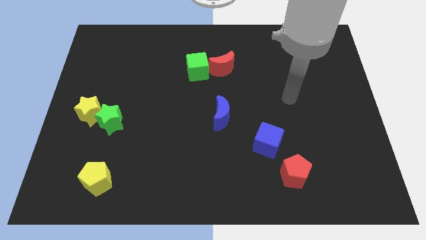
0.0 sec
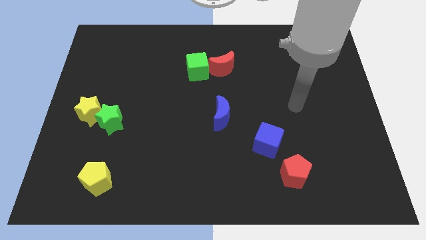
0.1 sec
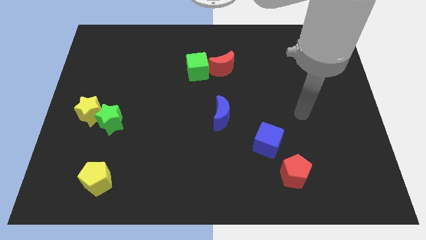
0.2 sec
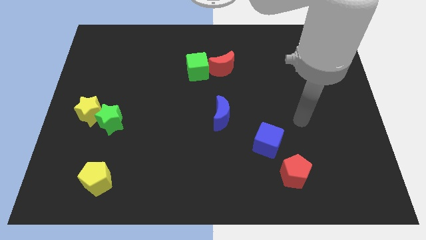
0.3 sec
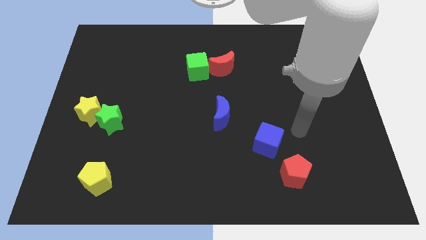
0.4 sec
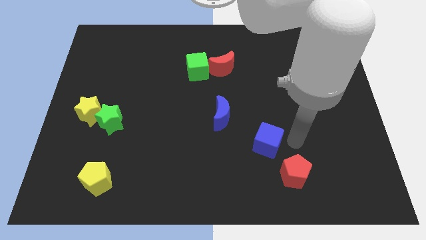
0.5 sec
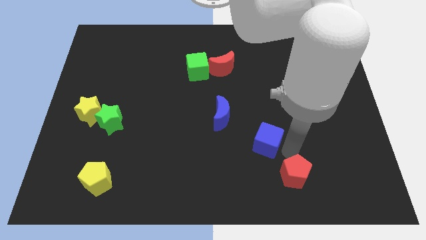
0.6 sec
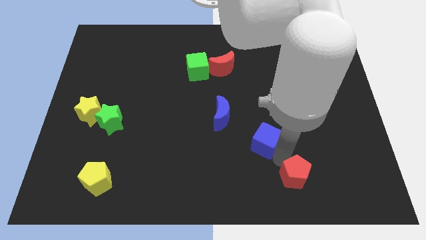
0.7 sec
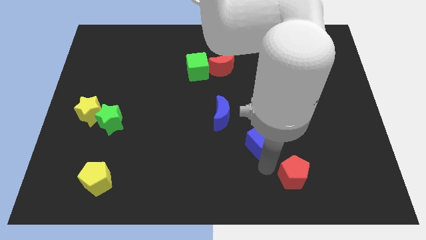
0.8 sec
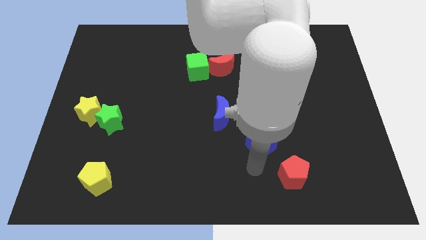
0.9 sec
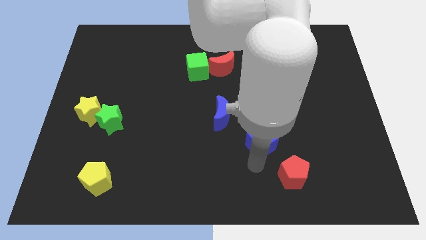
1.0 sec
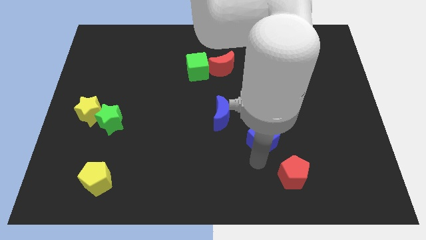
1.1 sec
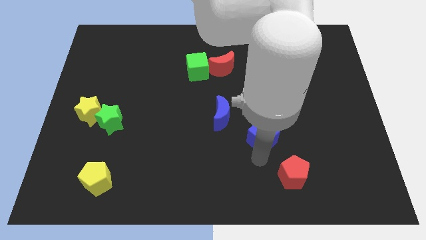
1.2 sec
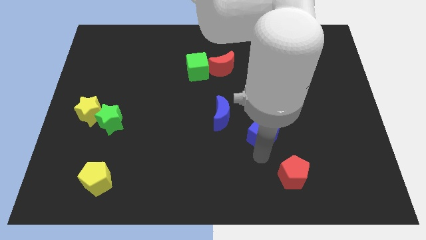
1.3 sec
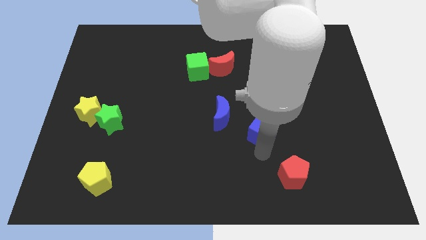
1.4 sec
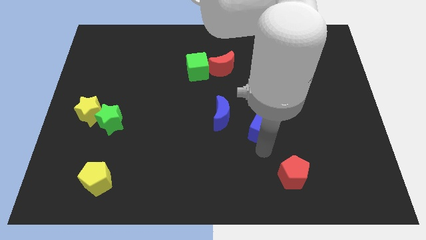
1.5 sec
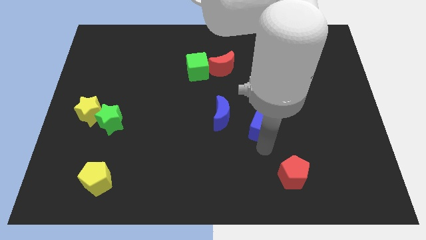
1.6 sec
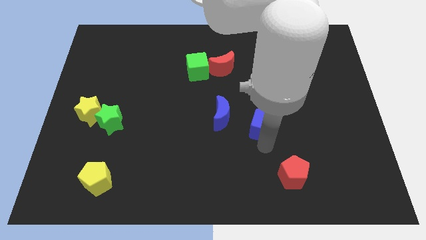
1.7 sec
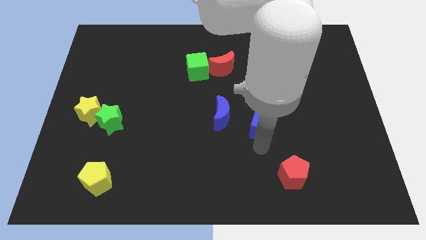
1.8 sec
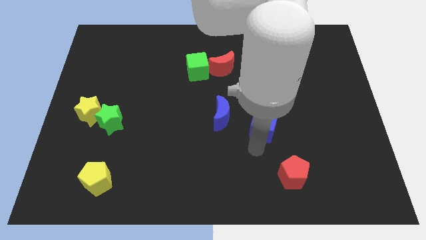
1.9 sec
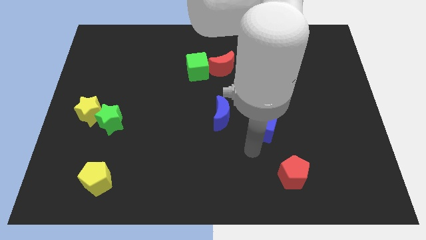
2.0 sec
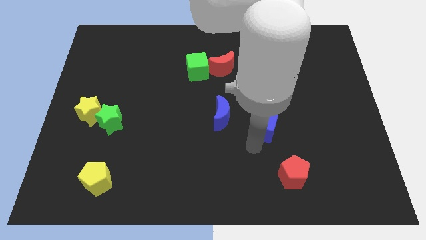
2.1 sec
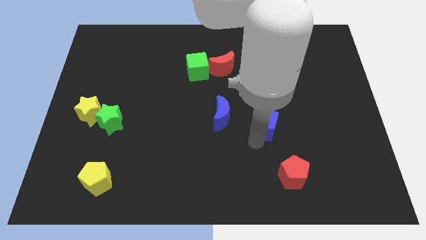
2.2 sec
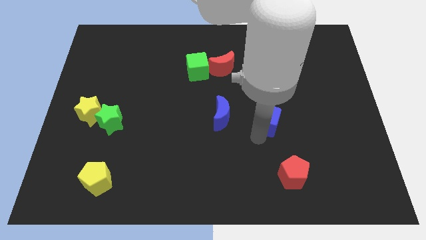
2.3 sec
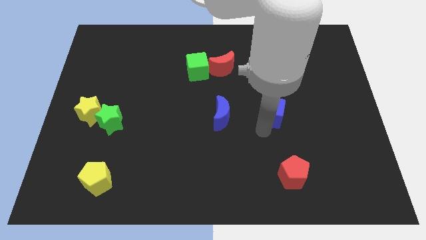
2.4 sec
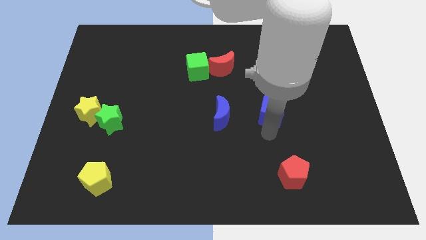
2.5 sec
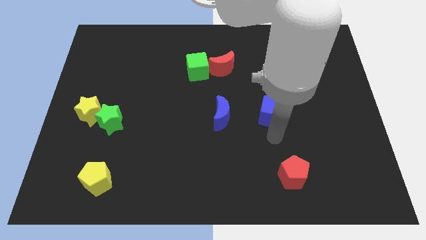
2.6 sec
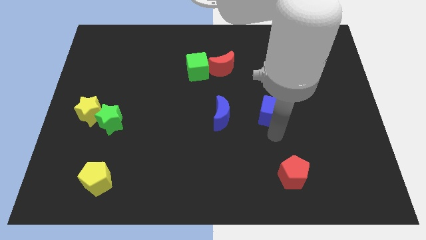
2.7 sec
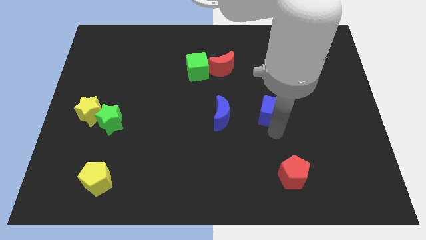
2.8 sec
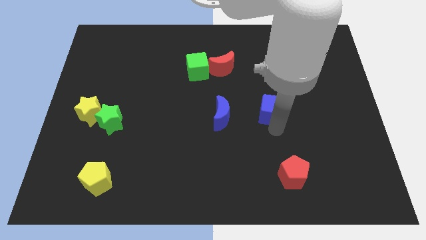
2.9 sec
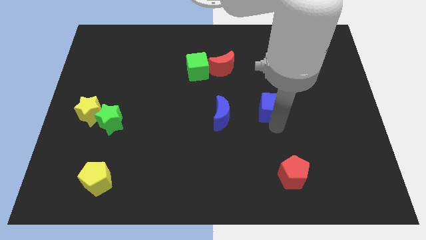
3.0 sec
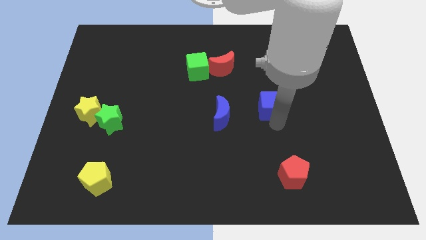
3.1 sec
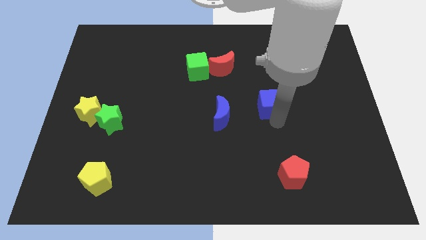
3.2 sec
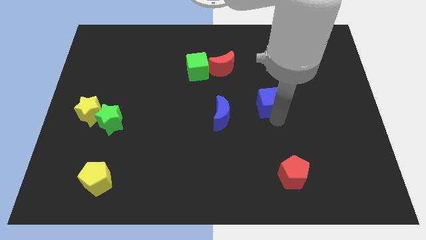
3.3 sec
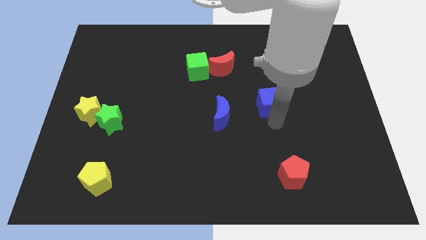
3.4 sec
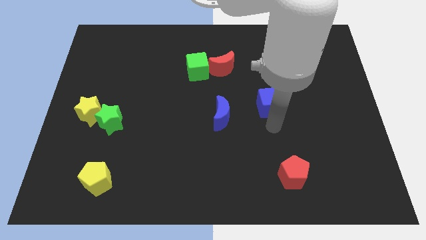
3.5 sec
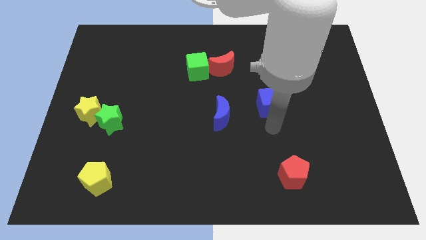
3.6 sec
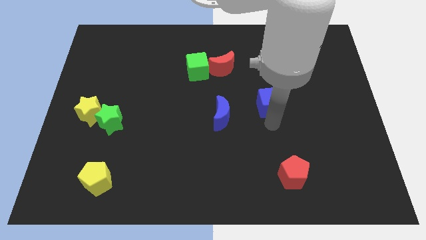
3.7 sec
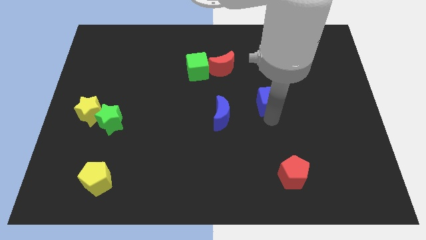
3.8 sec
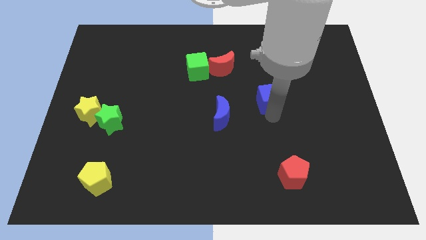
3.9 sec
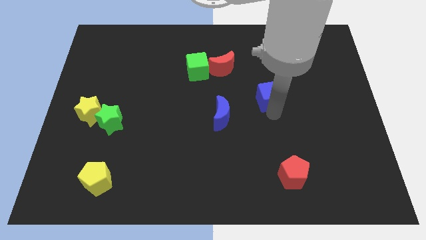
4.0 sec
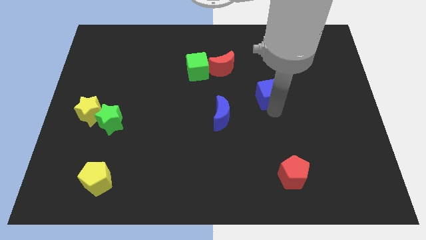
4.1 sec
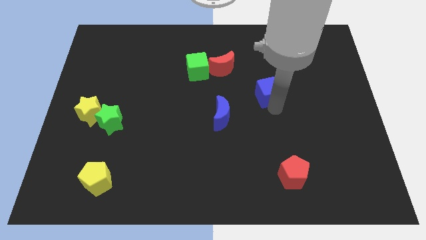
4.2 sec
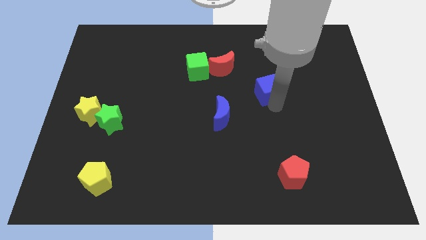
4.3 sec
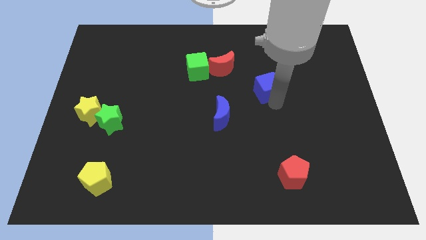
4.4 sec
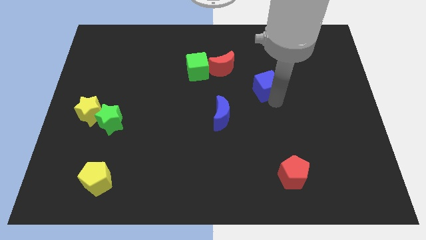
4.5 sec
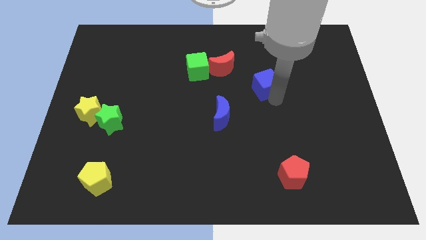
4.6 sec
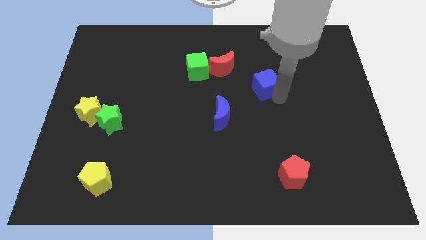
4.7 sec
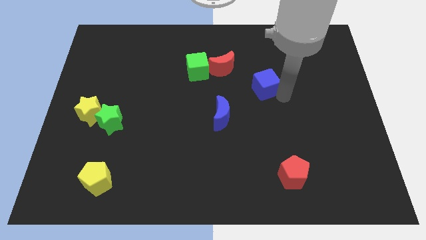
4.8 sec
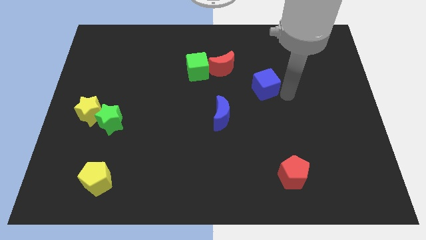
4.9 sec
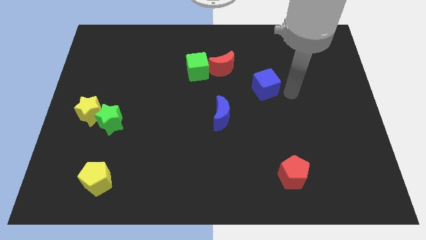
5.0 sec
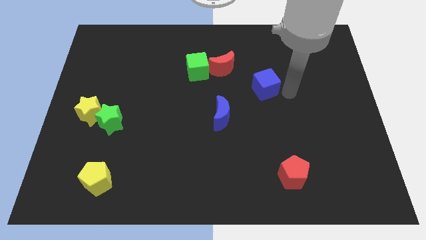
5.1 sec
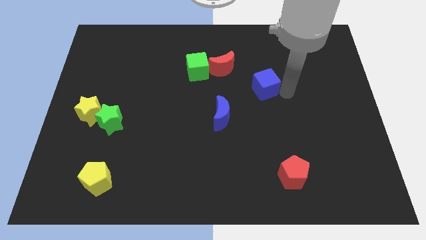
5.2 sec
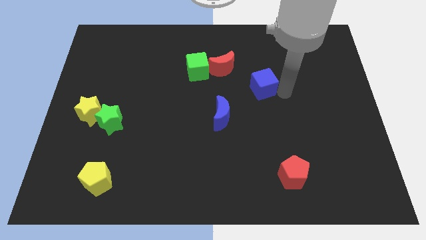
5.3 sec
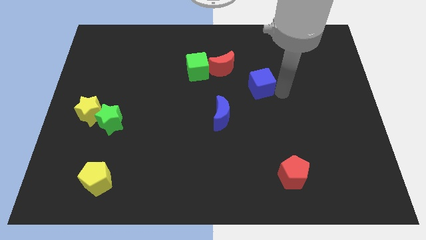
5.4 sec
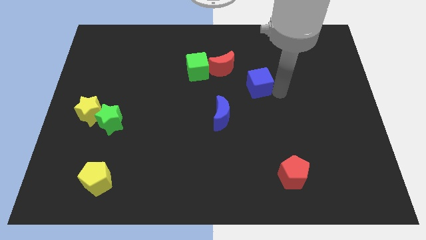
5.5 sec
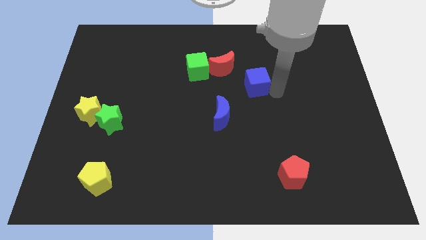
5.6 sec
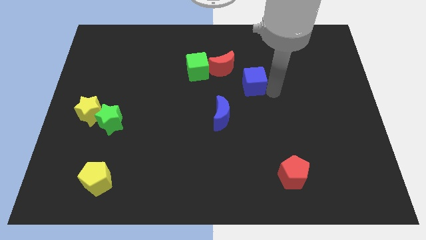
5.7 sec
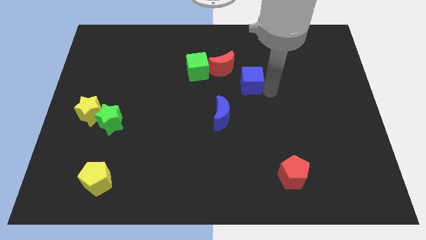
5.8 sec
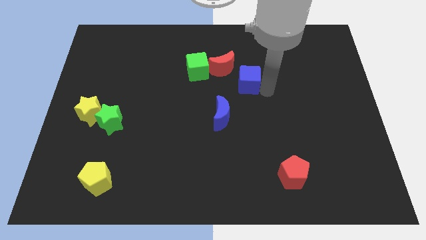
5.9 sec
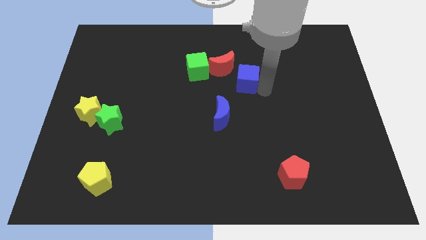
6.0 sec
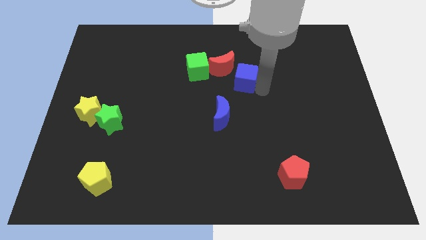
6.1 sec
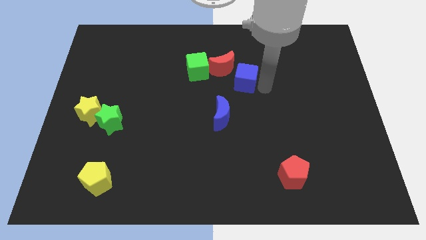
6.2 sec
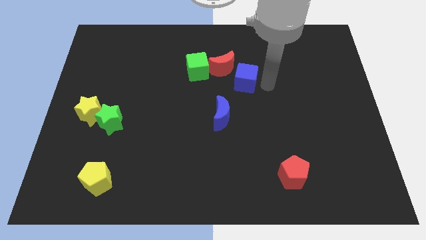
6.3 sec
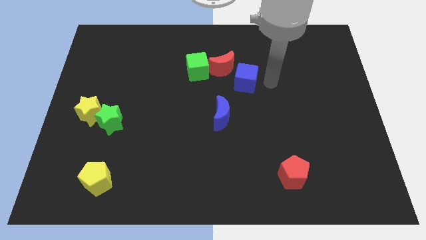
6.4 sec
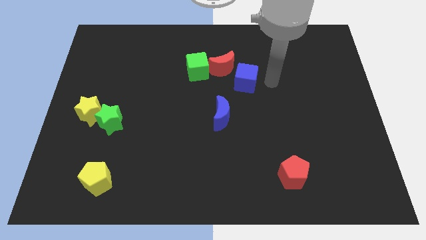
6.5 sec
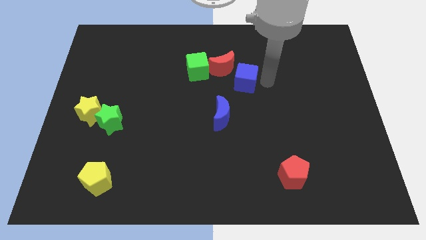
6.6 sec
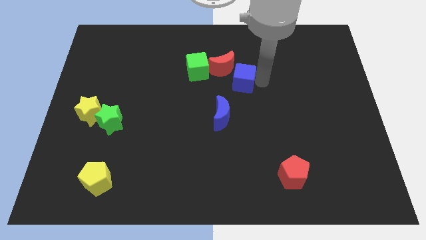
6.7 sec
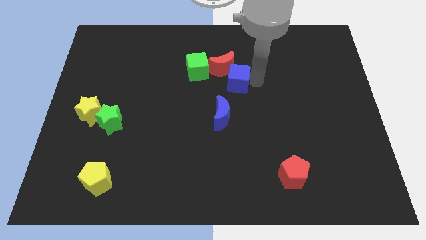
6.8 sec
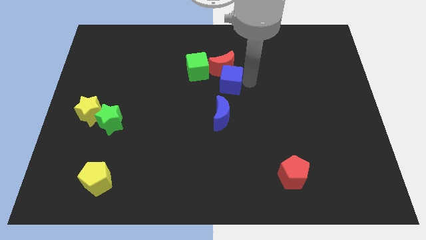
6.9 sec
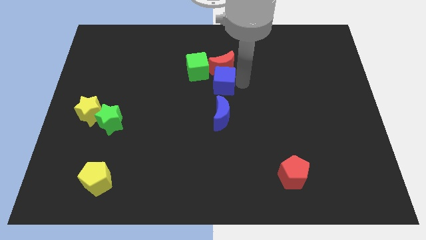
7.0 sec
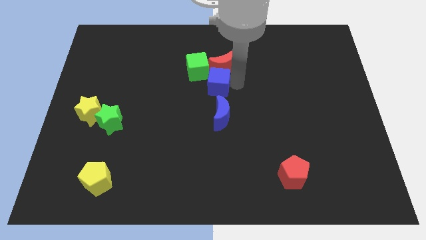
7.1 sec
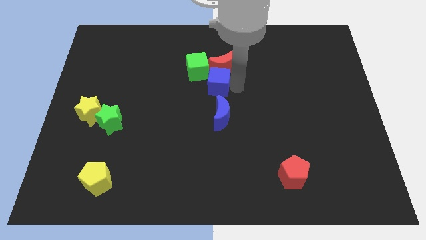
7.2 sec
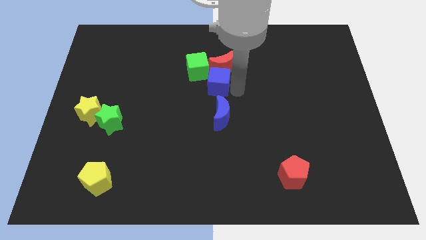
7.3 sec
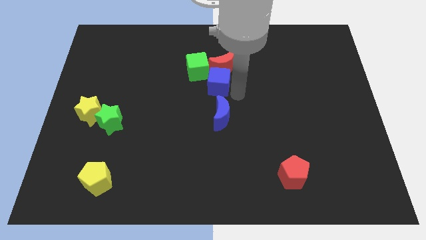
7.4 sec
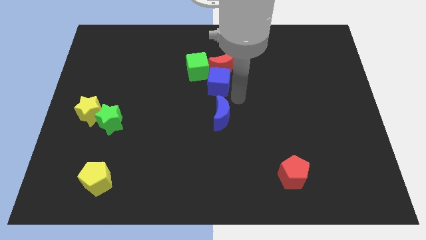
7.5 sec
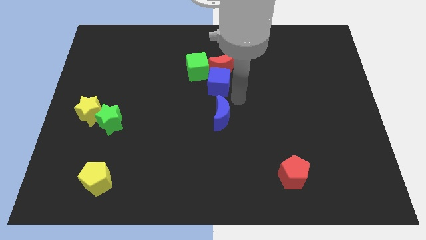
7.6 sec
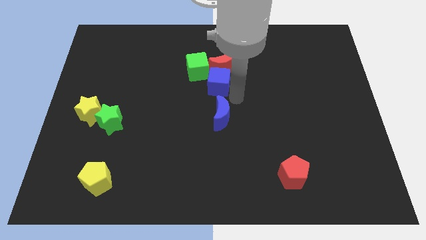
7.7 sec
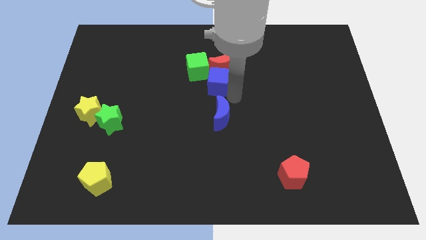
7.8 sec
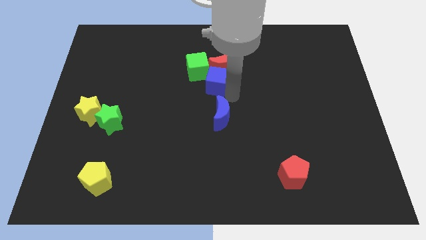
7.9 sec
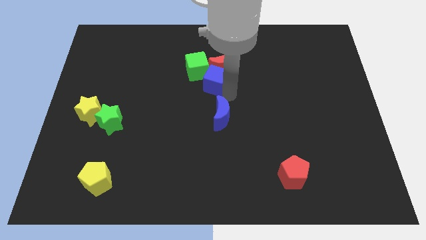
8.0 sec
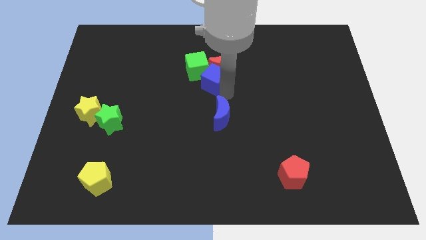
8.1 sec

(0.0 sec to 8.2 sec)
push the blue cube to the green cube
